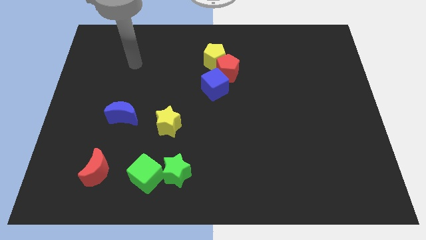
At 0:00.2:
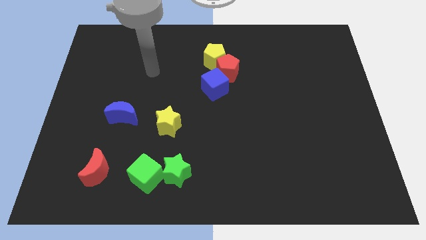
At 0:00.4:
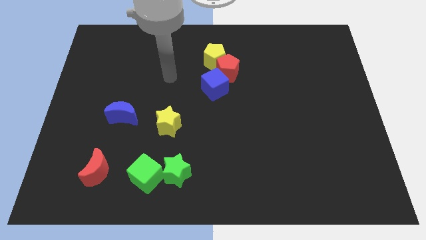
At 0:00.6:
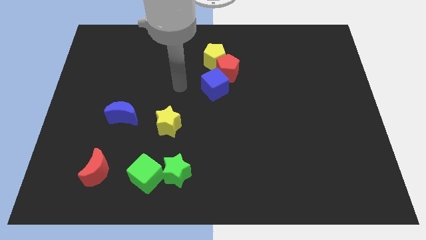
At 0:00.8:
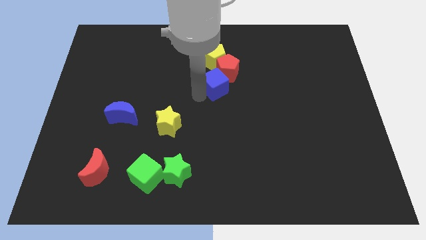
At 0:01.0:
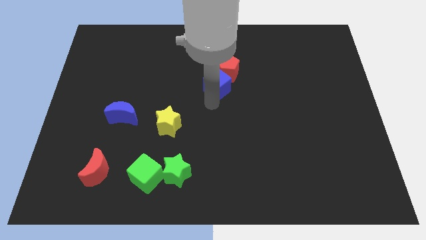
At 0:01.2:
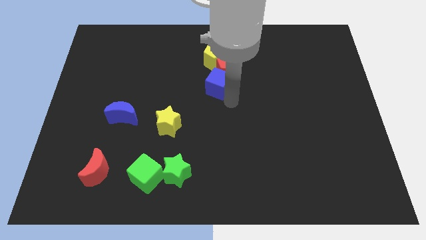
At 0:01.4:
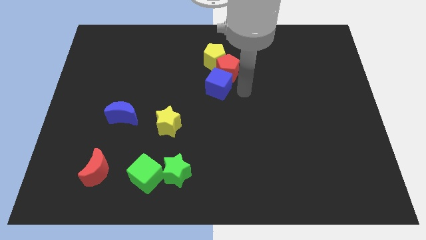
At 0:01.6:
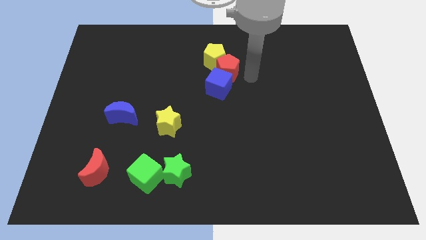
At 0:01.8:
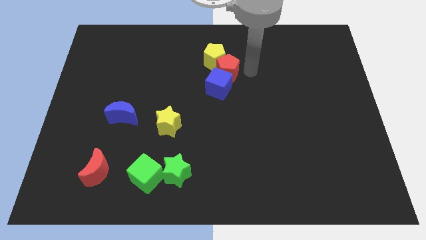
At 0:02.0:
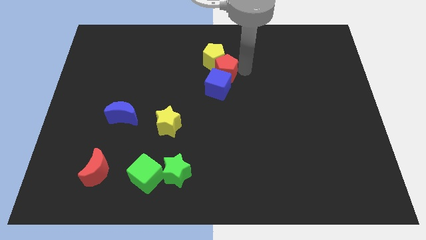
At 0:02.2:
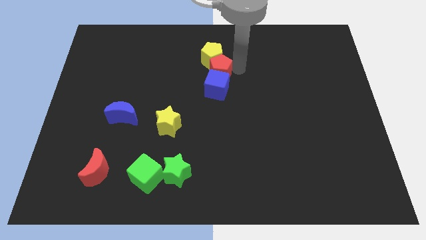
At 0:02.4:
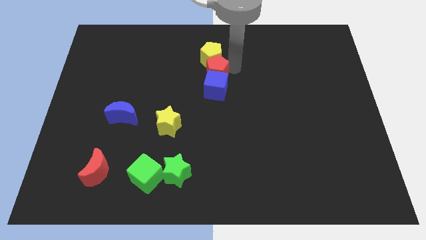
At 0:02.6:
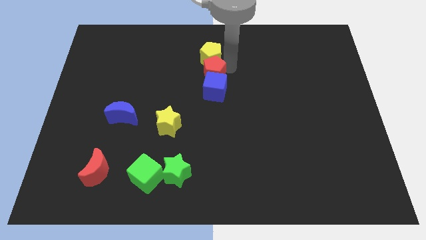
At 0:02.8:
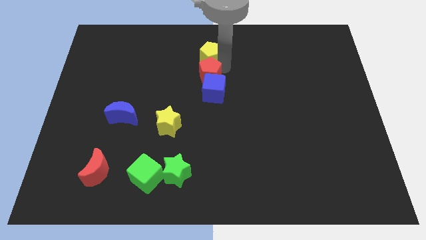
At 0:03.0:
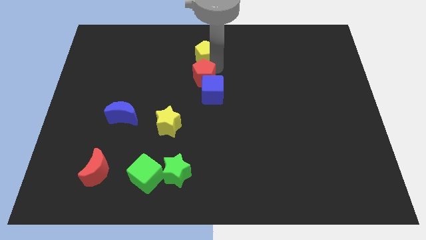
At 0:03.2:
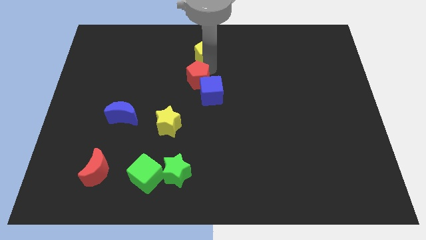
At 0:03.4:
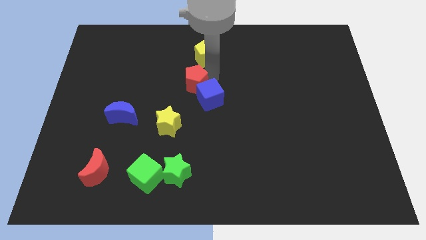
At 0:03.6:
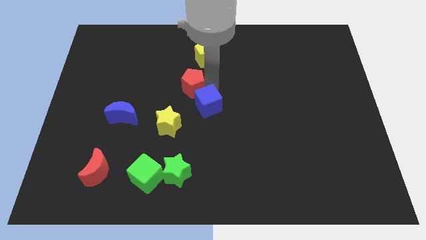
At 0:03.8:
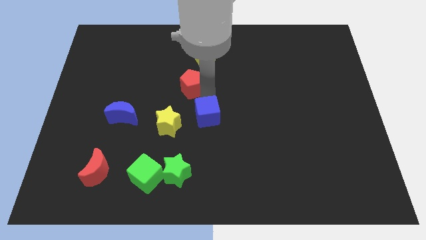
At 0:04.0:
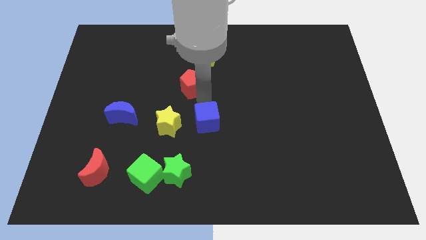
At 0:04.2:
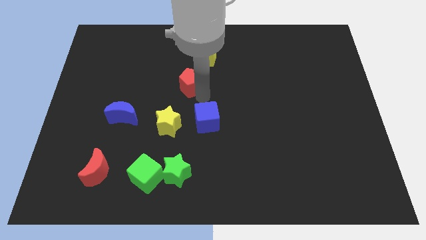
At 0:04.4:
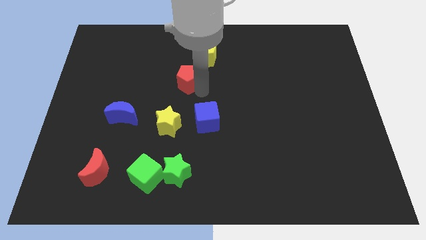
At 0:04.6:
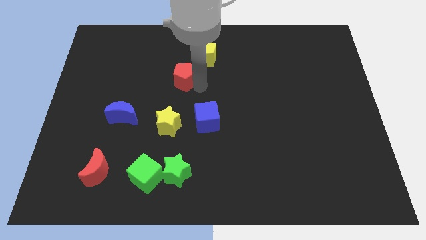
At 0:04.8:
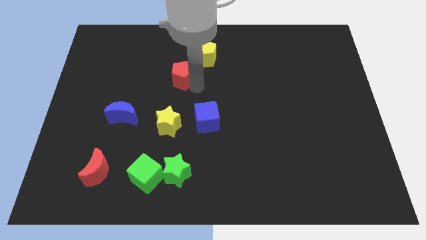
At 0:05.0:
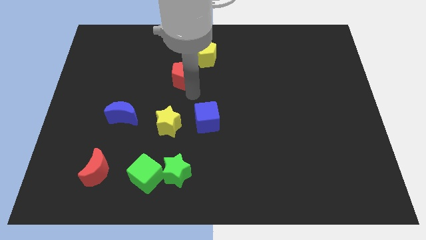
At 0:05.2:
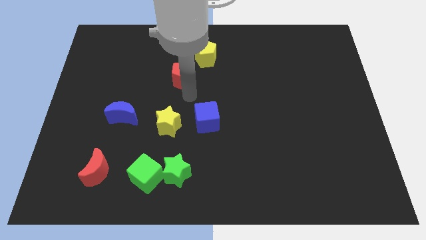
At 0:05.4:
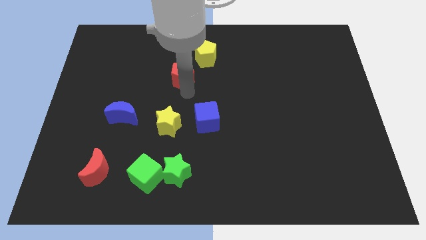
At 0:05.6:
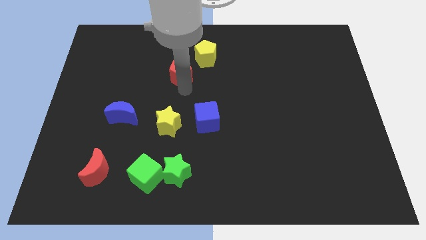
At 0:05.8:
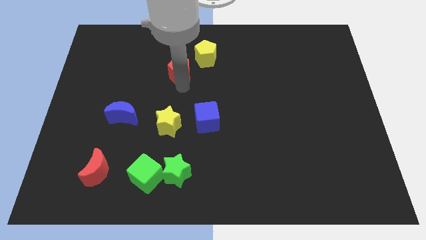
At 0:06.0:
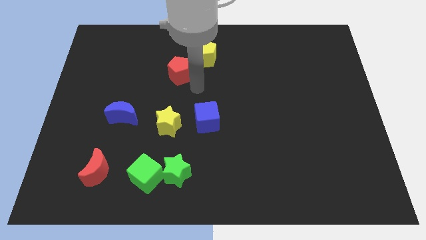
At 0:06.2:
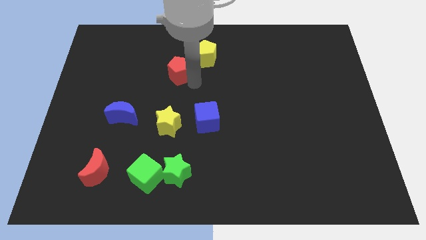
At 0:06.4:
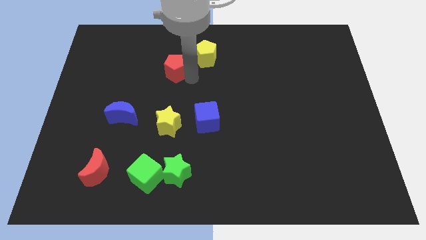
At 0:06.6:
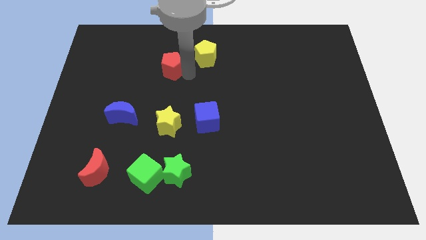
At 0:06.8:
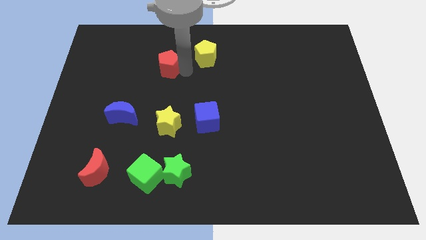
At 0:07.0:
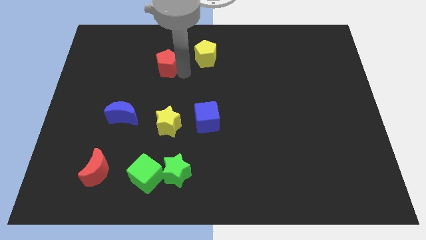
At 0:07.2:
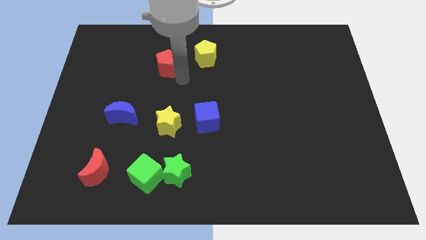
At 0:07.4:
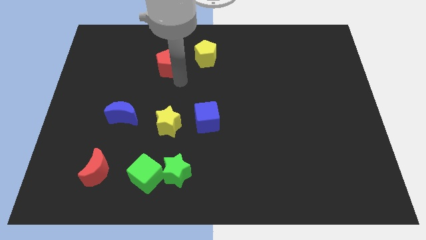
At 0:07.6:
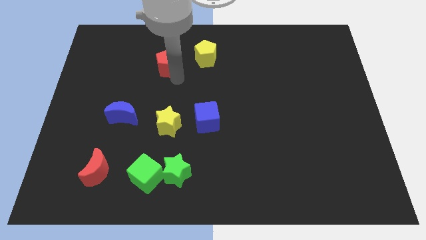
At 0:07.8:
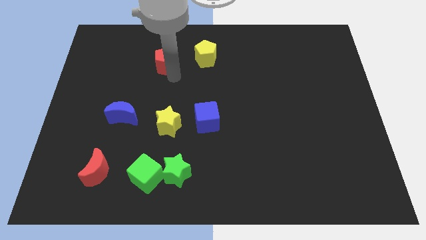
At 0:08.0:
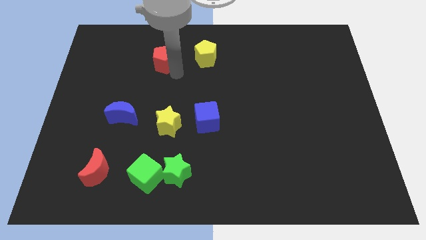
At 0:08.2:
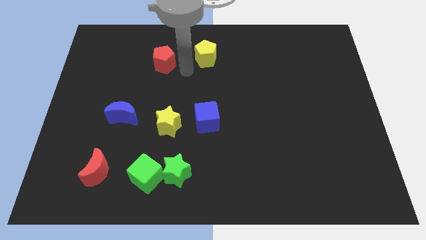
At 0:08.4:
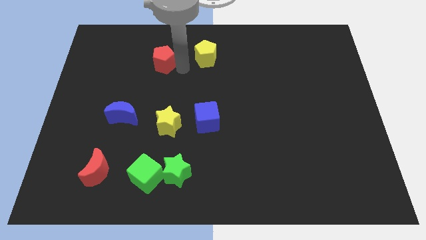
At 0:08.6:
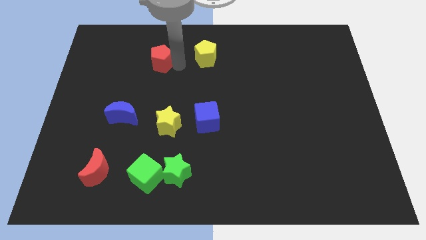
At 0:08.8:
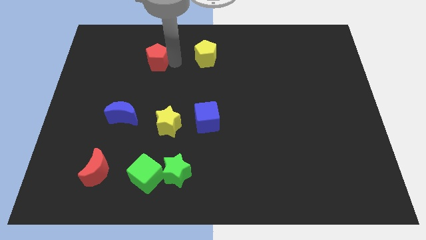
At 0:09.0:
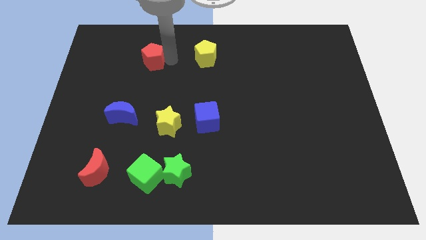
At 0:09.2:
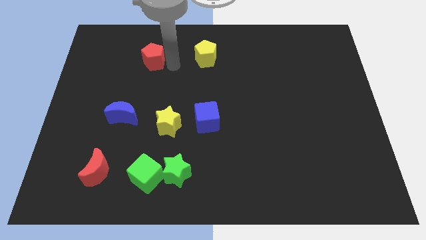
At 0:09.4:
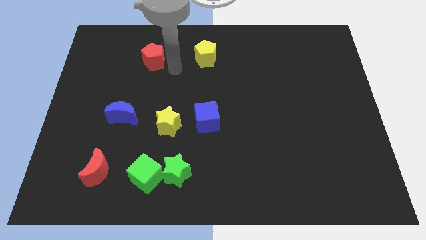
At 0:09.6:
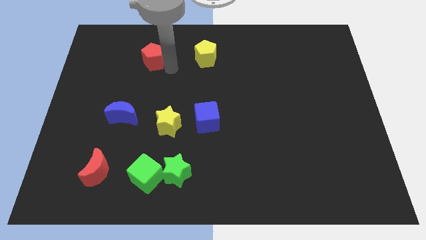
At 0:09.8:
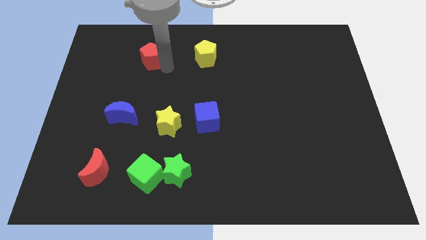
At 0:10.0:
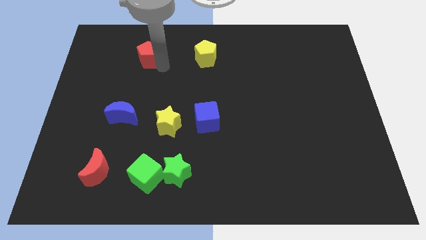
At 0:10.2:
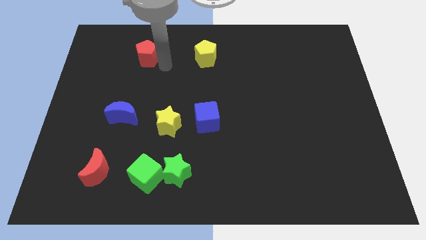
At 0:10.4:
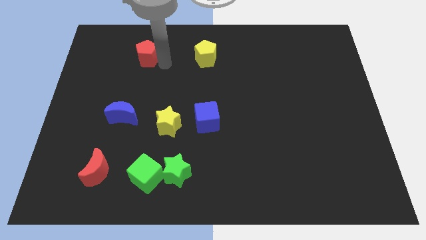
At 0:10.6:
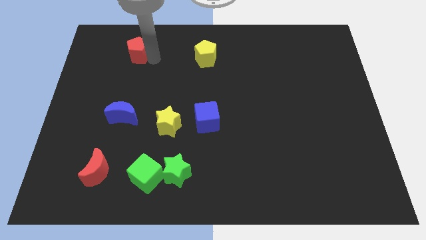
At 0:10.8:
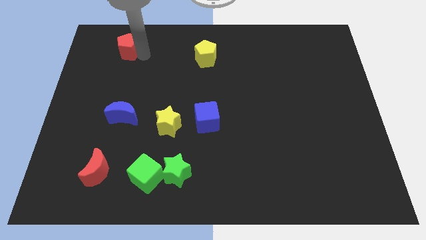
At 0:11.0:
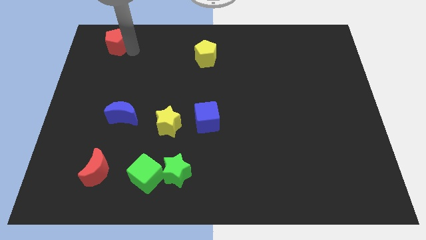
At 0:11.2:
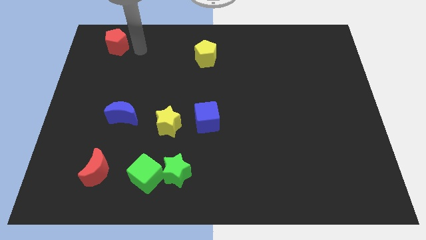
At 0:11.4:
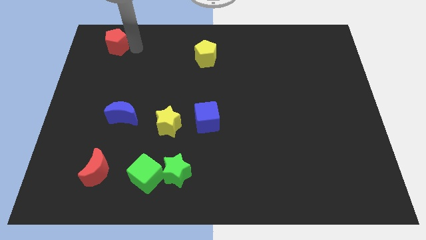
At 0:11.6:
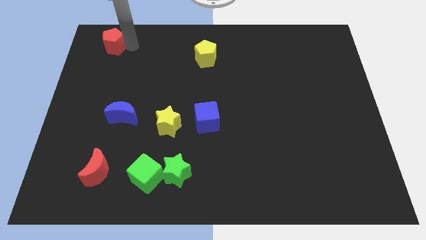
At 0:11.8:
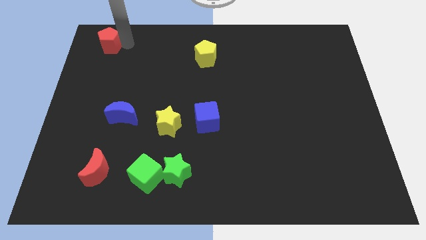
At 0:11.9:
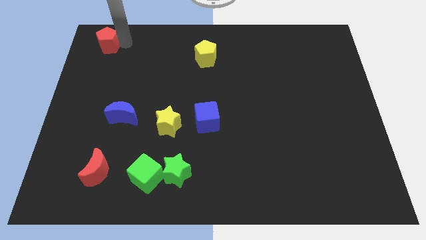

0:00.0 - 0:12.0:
slide the red pentagon to the top left

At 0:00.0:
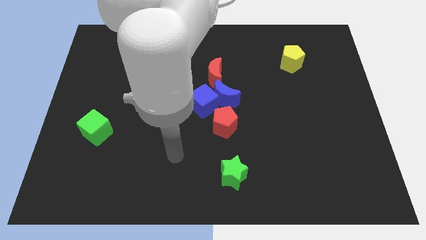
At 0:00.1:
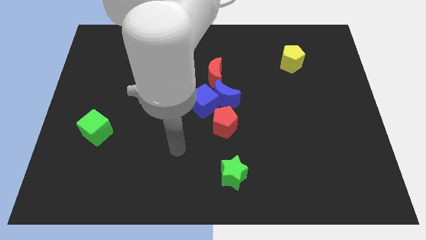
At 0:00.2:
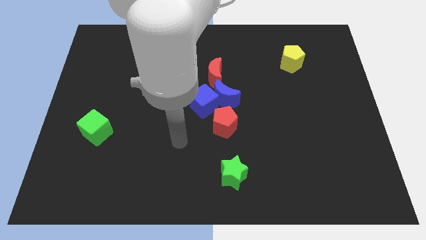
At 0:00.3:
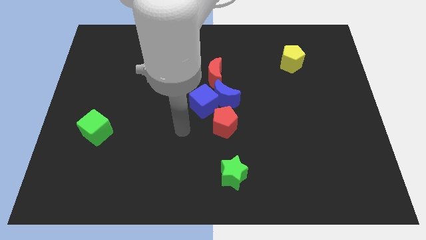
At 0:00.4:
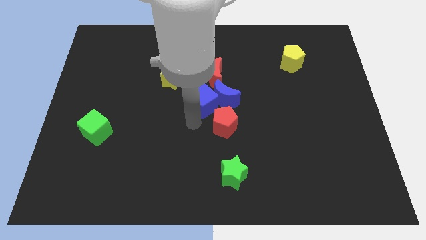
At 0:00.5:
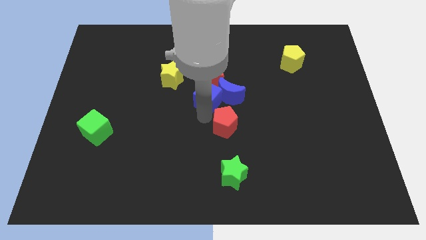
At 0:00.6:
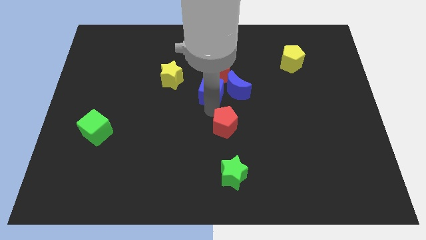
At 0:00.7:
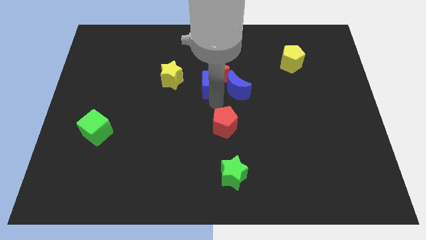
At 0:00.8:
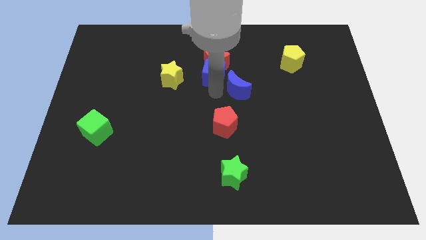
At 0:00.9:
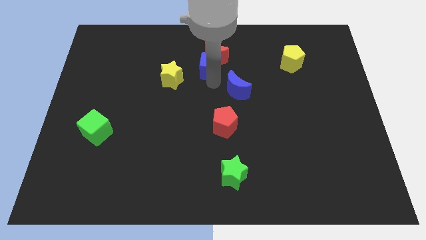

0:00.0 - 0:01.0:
push the red moon to the towards your base

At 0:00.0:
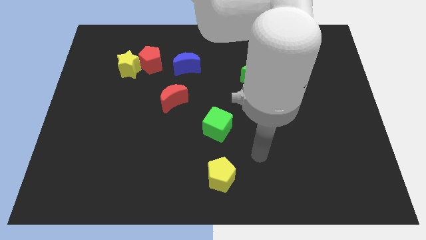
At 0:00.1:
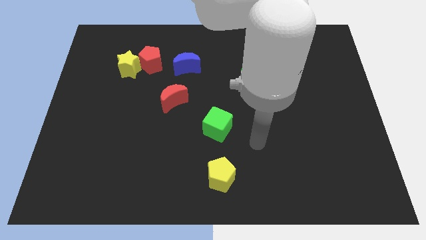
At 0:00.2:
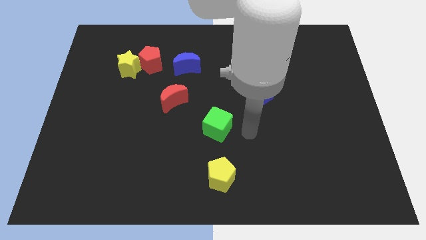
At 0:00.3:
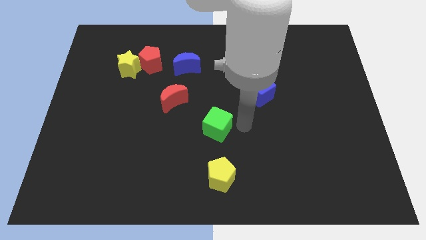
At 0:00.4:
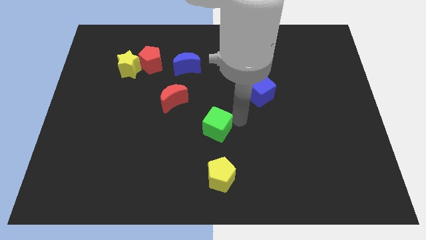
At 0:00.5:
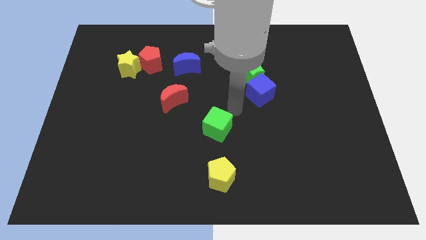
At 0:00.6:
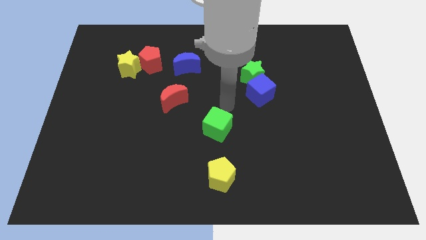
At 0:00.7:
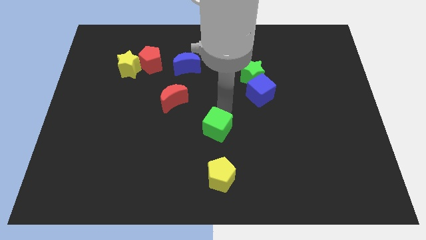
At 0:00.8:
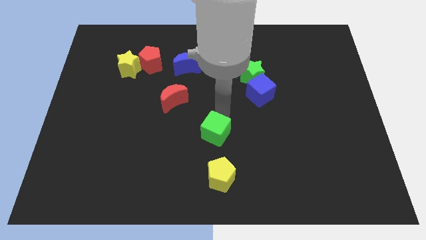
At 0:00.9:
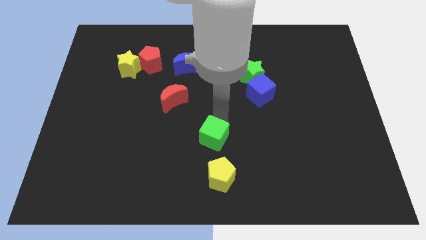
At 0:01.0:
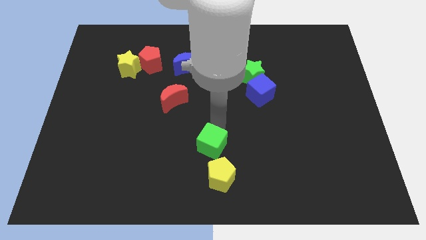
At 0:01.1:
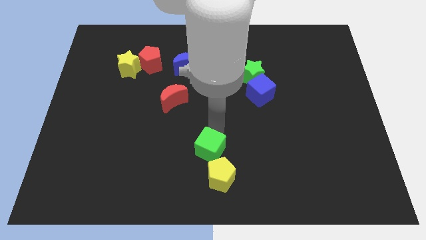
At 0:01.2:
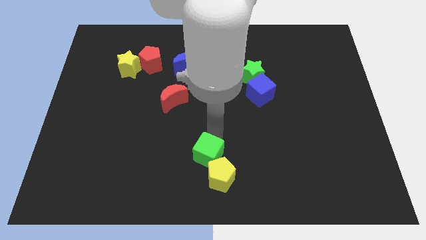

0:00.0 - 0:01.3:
move the green cube to the bottom

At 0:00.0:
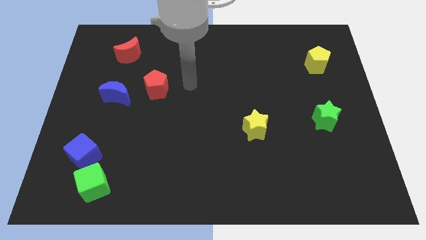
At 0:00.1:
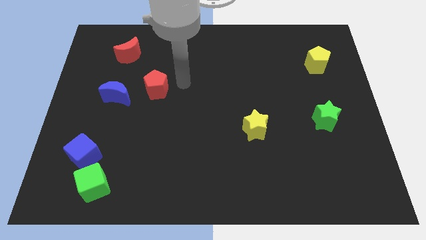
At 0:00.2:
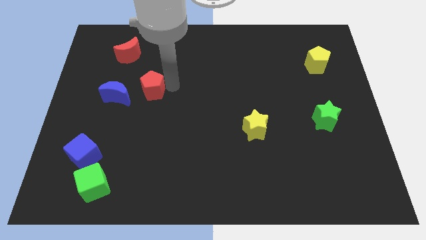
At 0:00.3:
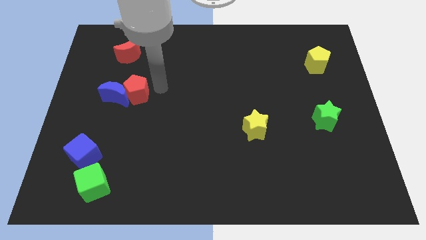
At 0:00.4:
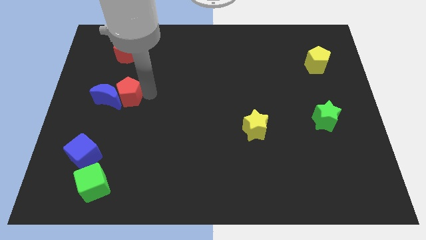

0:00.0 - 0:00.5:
slide the blue moon to the center left
